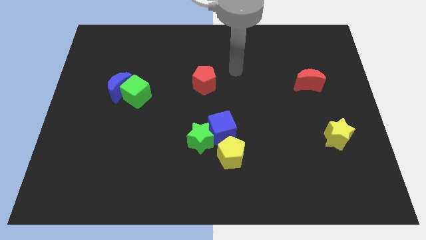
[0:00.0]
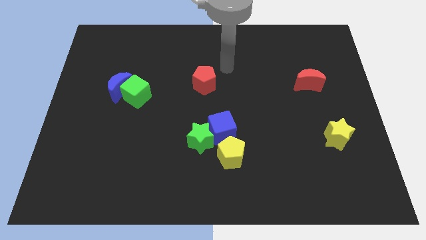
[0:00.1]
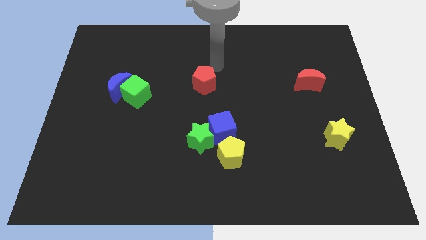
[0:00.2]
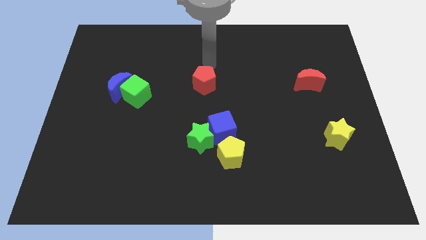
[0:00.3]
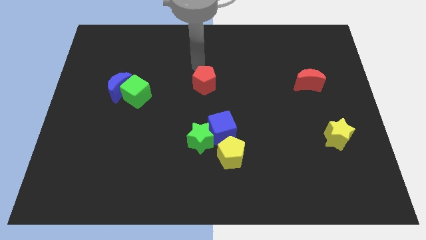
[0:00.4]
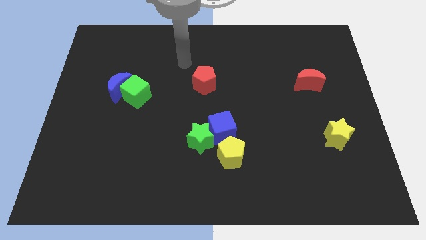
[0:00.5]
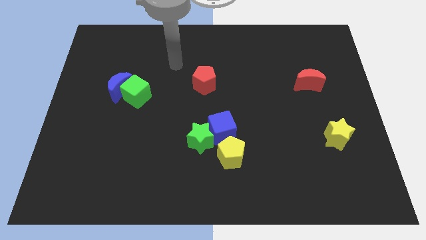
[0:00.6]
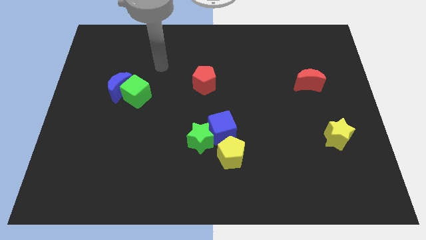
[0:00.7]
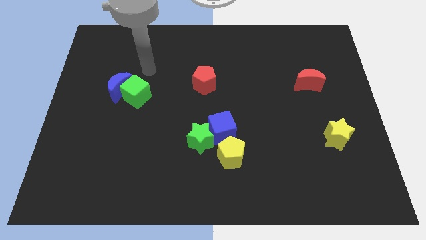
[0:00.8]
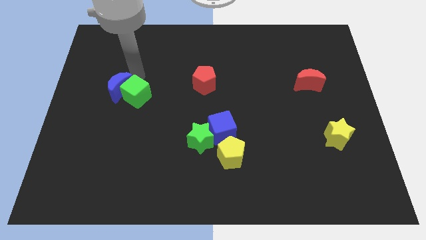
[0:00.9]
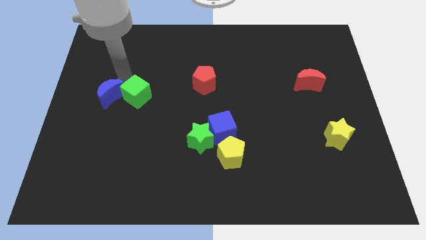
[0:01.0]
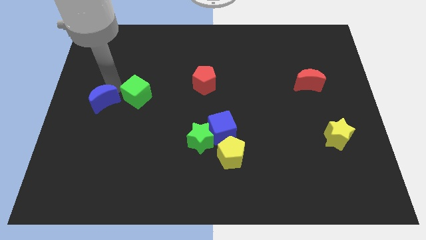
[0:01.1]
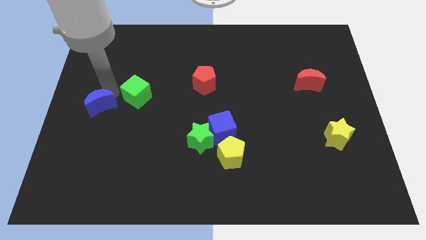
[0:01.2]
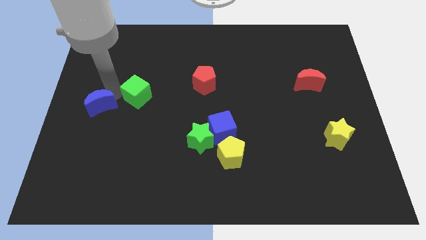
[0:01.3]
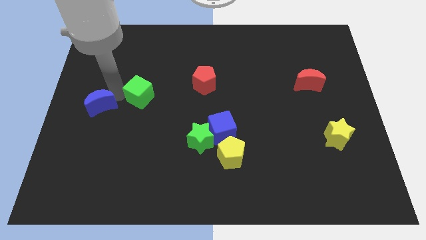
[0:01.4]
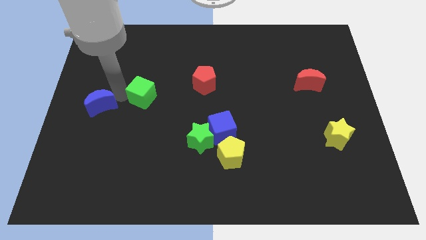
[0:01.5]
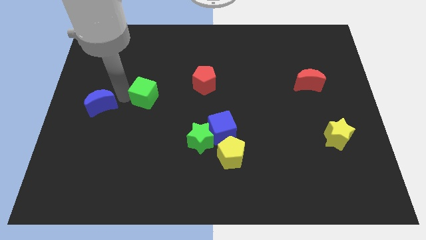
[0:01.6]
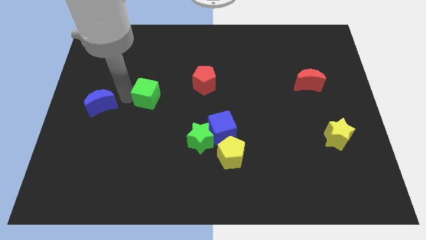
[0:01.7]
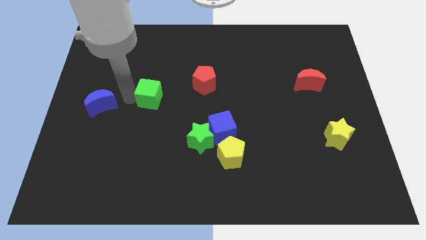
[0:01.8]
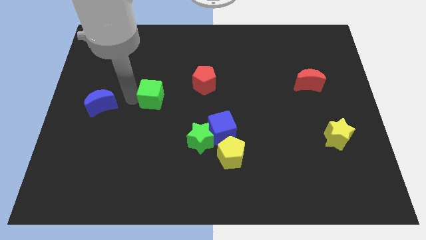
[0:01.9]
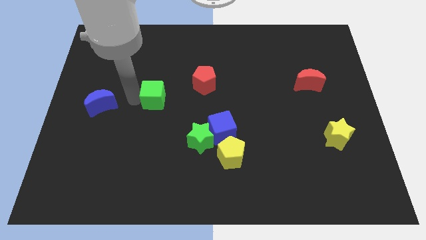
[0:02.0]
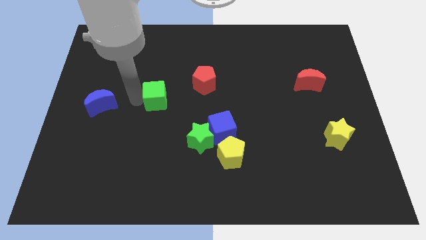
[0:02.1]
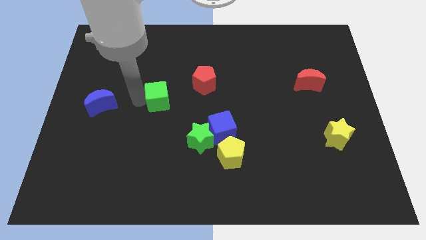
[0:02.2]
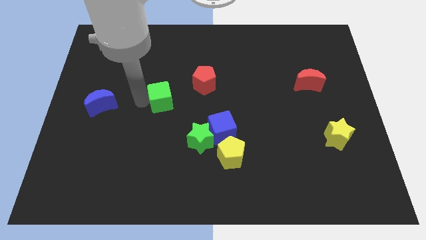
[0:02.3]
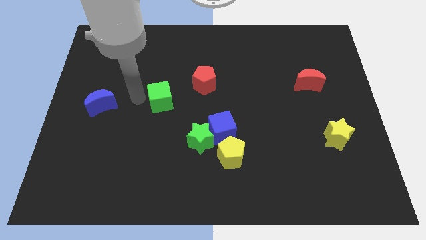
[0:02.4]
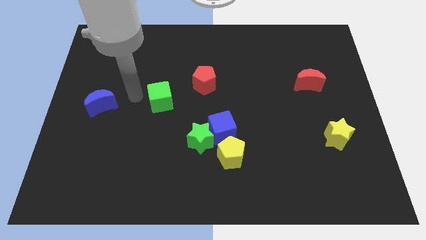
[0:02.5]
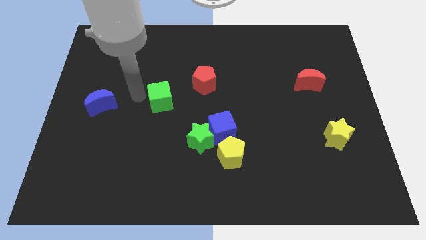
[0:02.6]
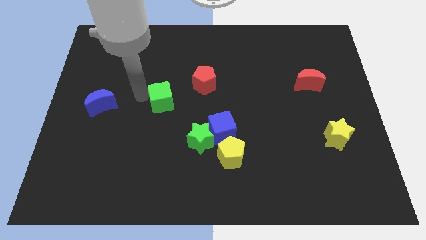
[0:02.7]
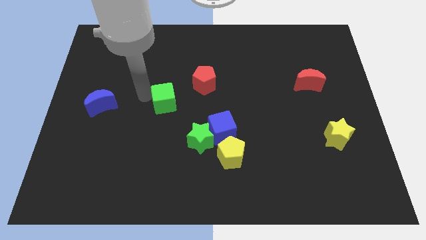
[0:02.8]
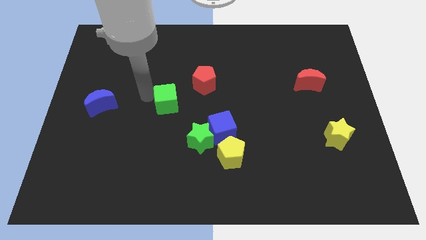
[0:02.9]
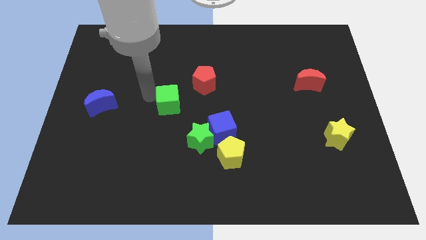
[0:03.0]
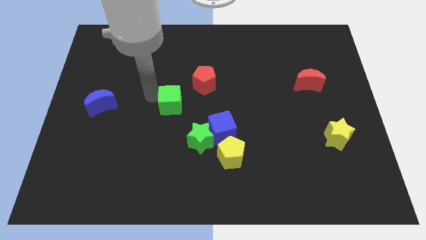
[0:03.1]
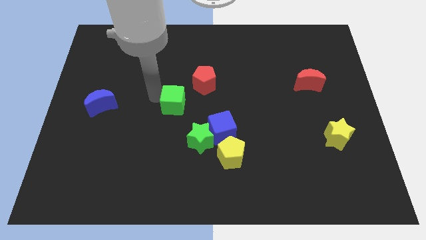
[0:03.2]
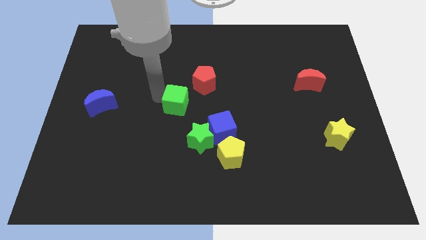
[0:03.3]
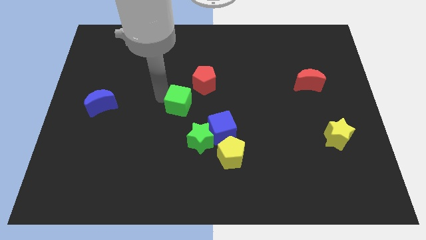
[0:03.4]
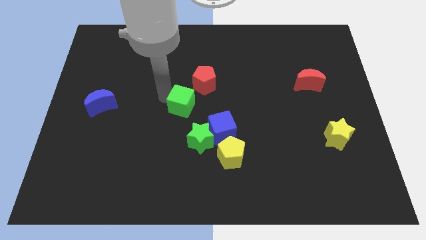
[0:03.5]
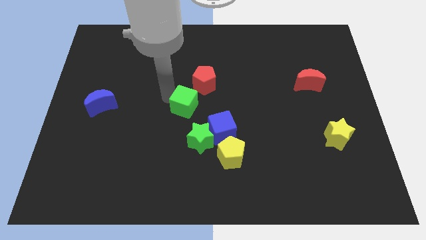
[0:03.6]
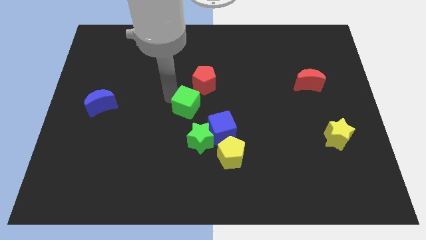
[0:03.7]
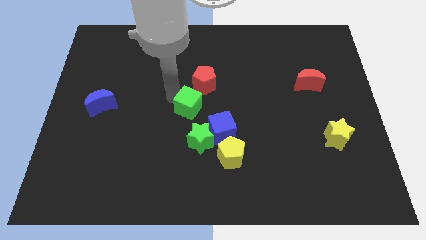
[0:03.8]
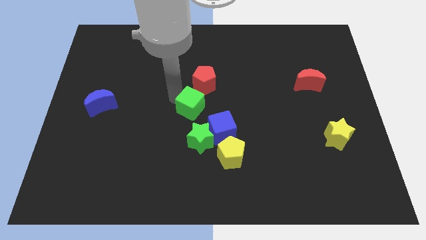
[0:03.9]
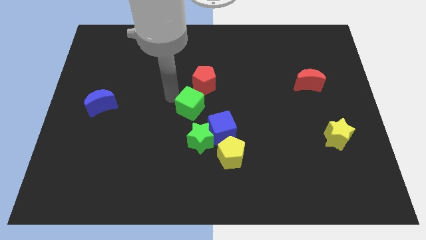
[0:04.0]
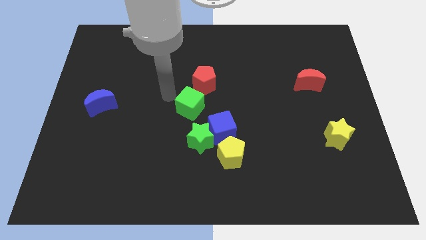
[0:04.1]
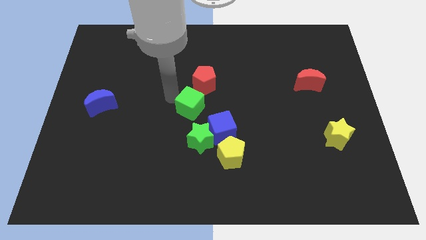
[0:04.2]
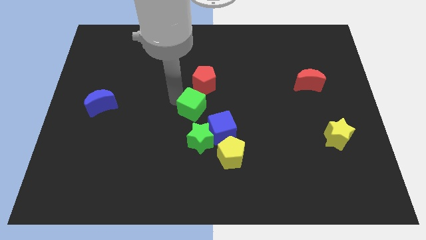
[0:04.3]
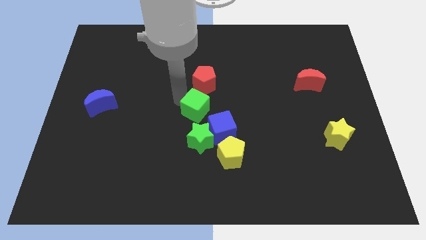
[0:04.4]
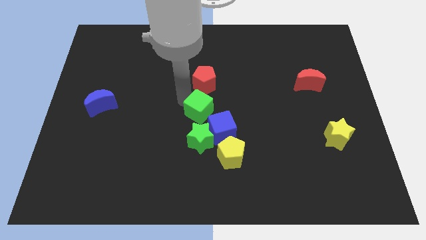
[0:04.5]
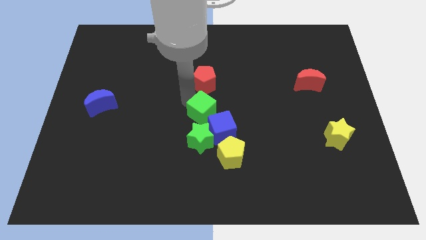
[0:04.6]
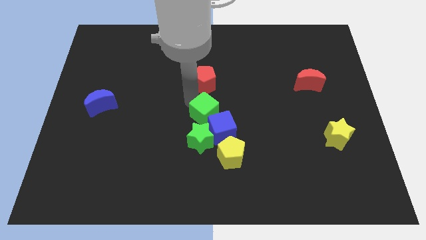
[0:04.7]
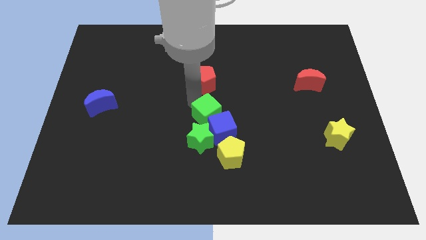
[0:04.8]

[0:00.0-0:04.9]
put the green cube towards the blue cube

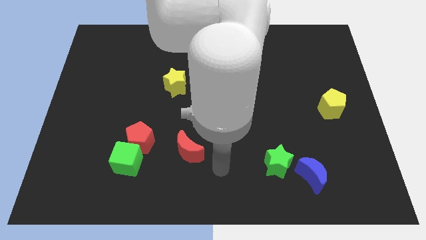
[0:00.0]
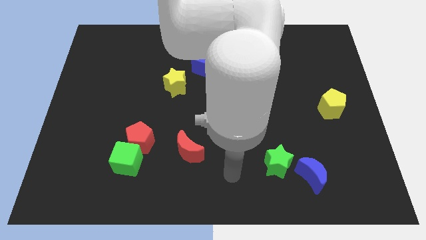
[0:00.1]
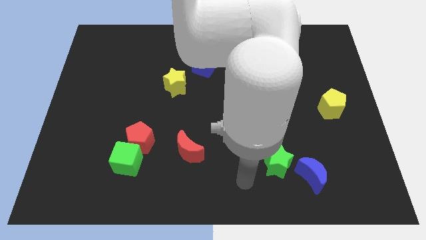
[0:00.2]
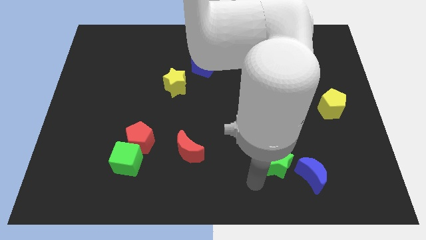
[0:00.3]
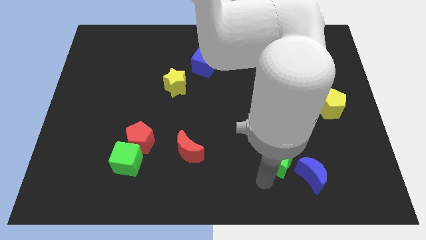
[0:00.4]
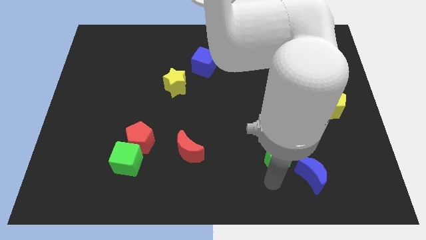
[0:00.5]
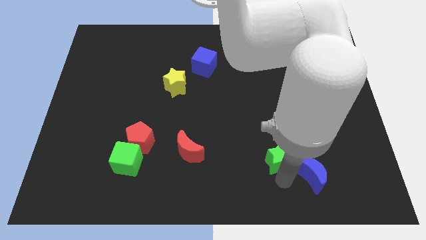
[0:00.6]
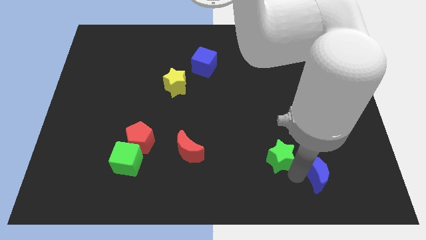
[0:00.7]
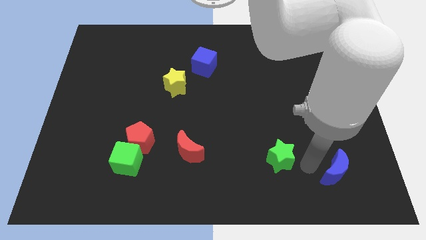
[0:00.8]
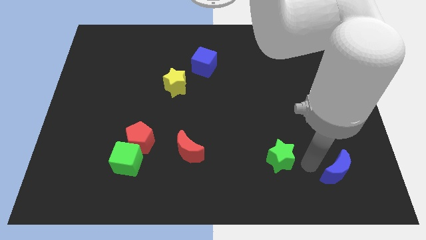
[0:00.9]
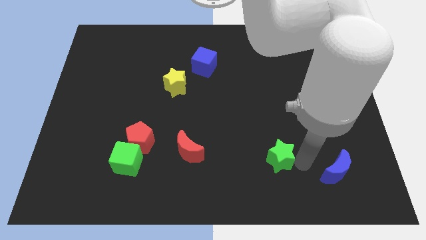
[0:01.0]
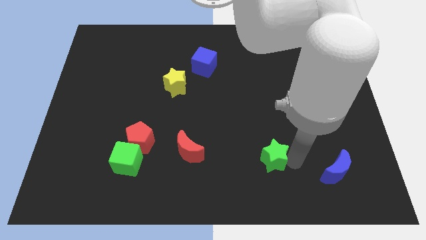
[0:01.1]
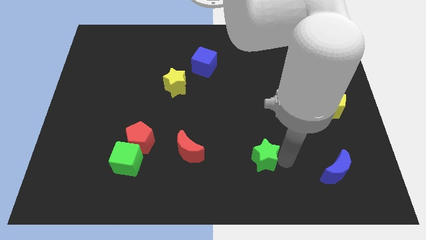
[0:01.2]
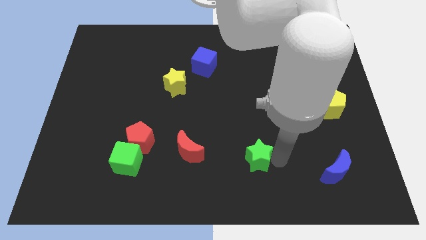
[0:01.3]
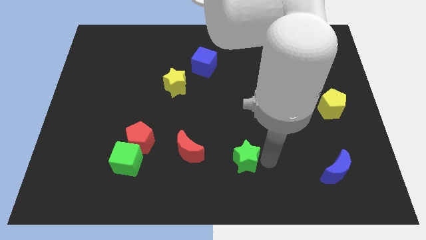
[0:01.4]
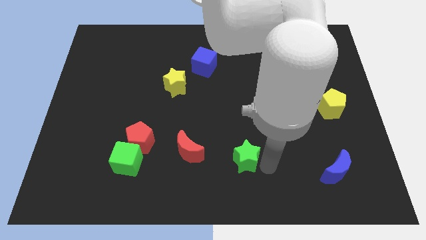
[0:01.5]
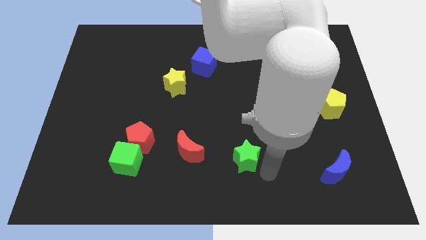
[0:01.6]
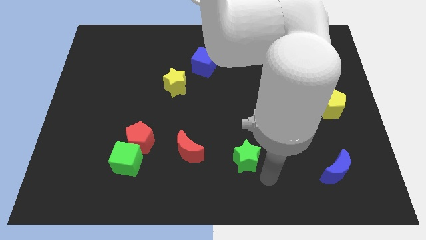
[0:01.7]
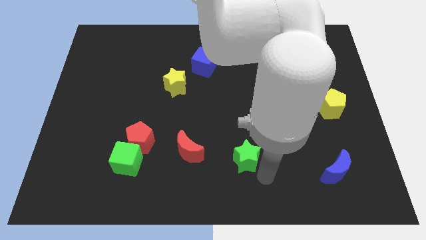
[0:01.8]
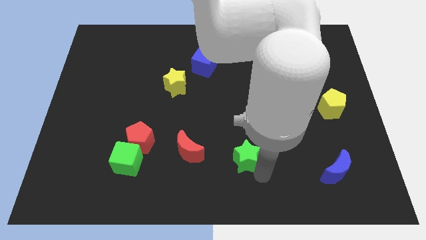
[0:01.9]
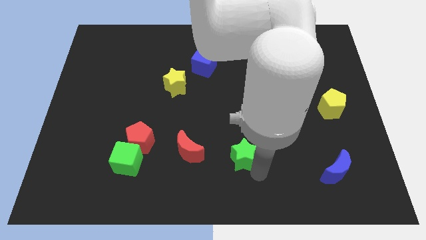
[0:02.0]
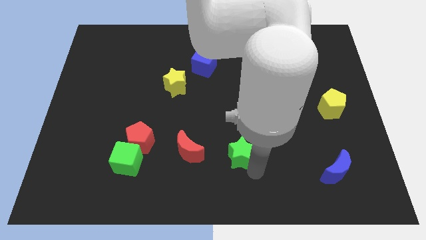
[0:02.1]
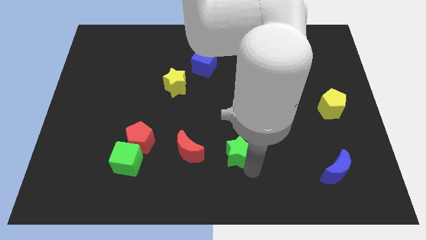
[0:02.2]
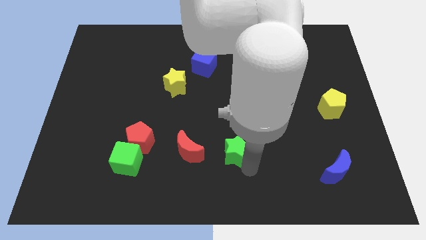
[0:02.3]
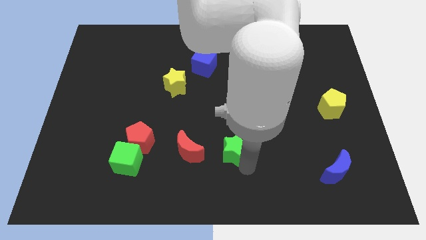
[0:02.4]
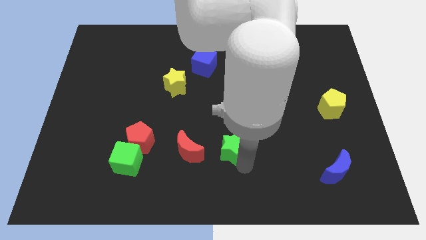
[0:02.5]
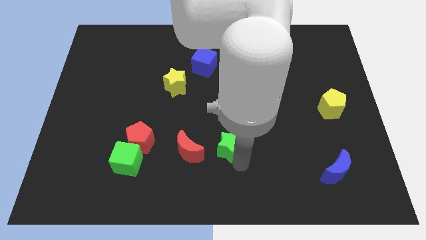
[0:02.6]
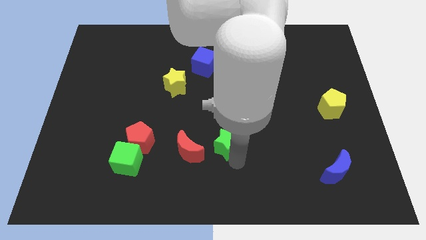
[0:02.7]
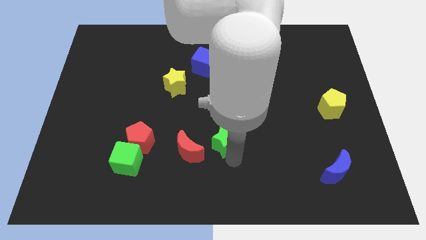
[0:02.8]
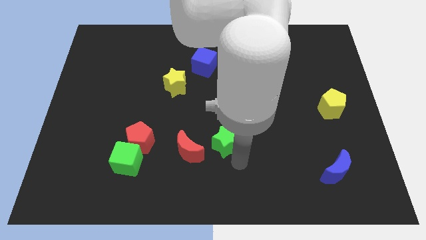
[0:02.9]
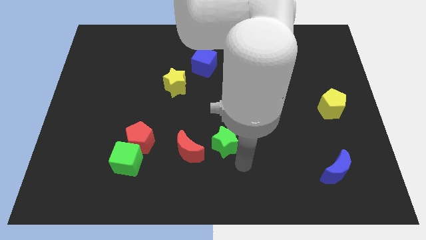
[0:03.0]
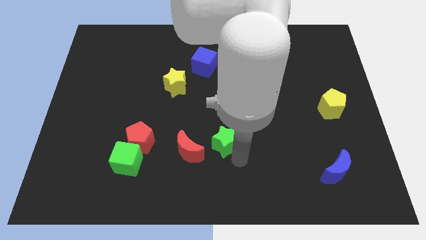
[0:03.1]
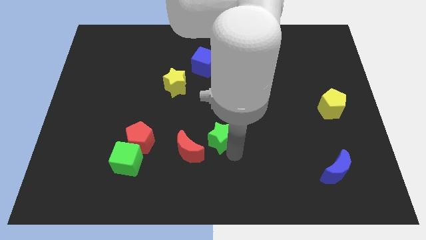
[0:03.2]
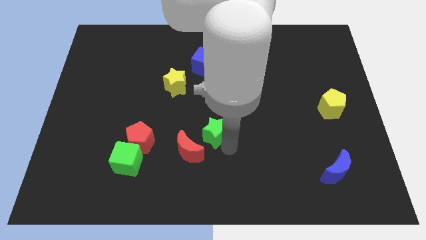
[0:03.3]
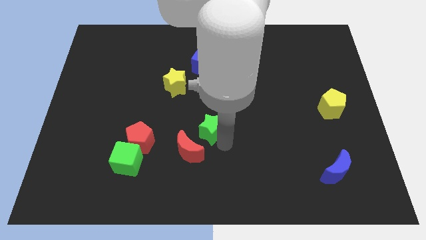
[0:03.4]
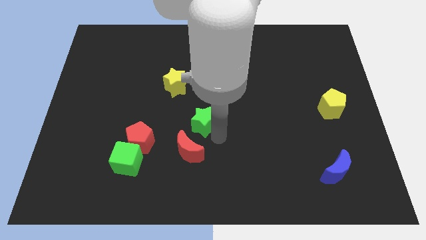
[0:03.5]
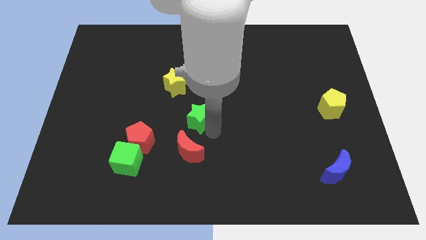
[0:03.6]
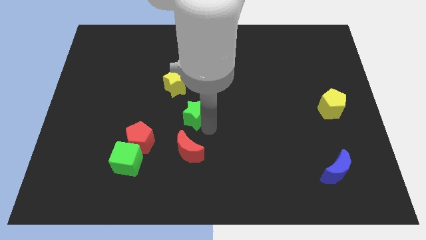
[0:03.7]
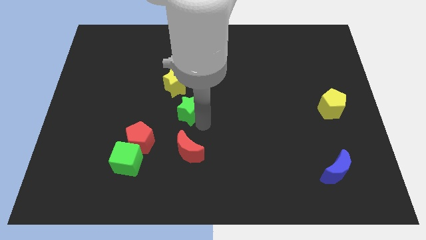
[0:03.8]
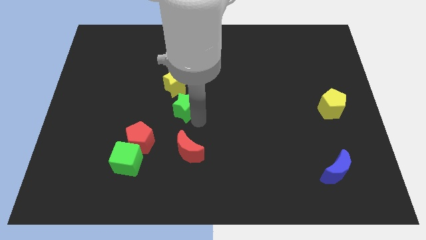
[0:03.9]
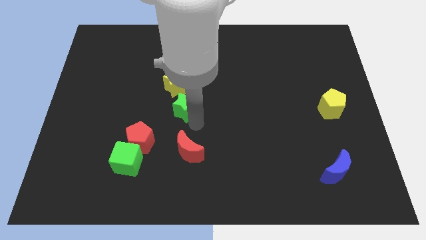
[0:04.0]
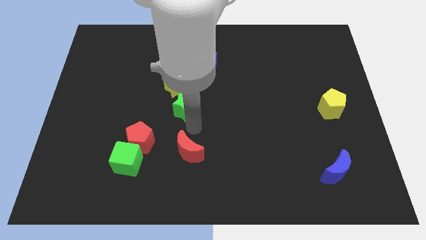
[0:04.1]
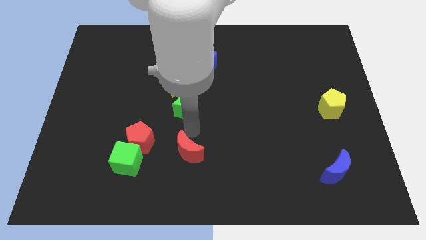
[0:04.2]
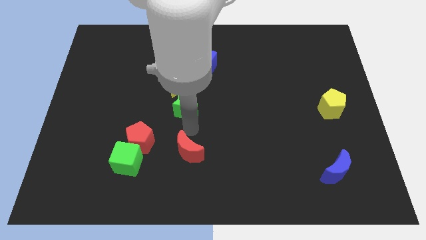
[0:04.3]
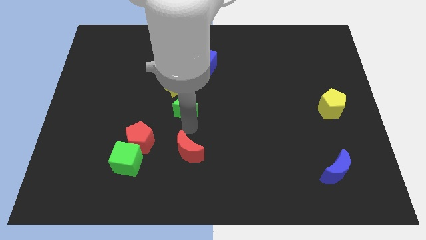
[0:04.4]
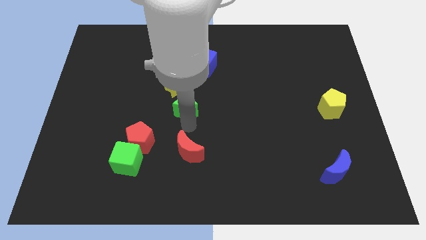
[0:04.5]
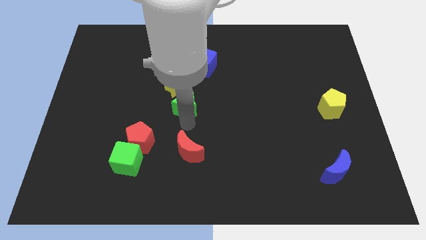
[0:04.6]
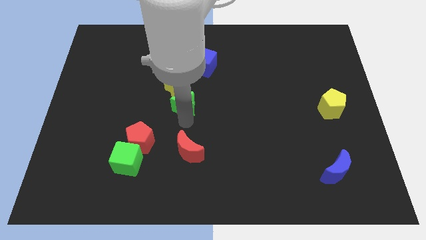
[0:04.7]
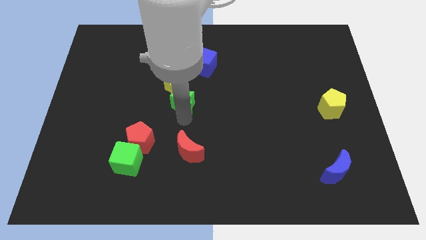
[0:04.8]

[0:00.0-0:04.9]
move the green star towards the yellow star
